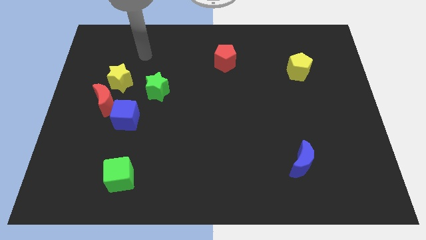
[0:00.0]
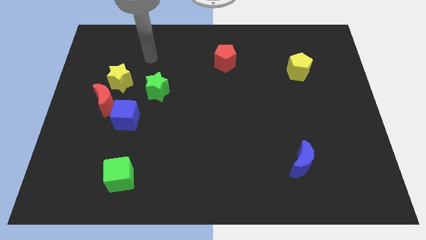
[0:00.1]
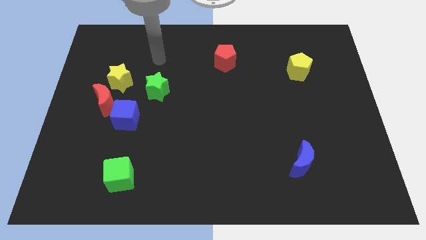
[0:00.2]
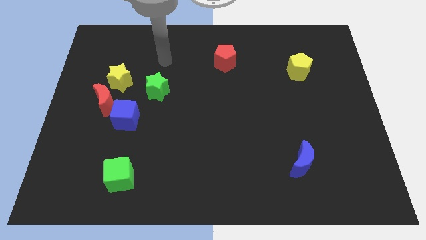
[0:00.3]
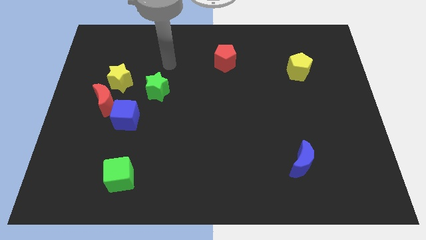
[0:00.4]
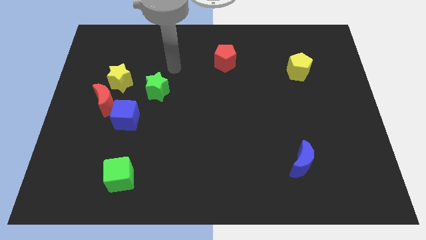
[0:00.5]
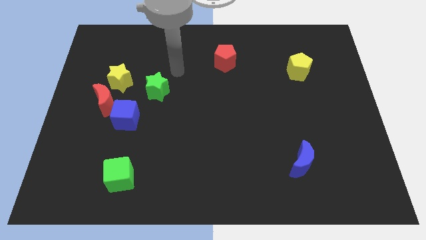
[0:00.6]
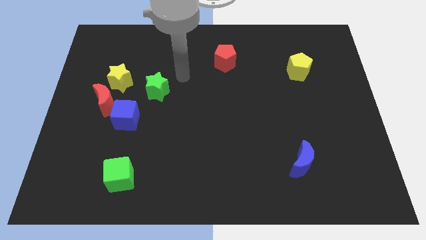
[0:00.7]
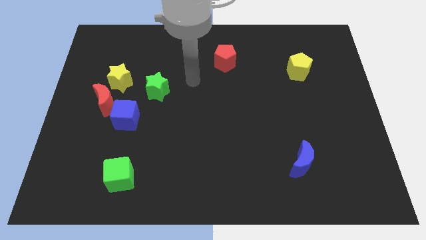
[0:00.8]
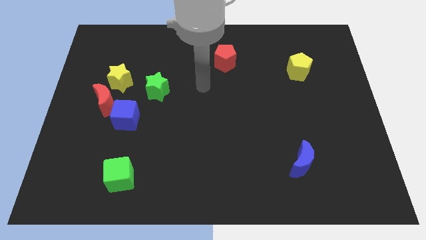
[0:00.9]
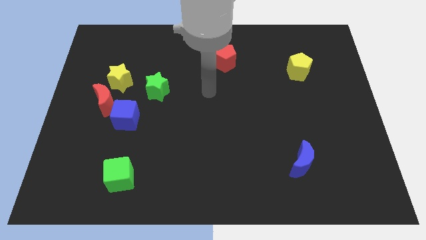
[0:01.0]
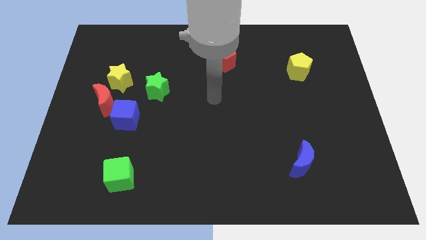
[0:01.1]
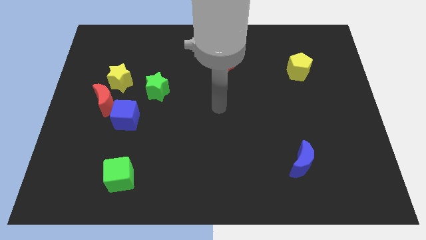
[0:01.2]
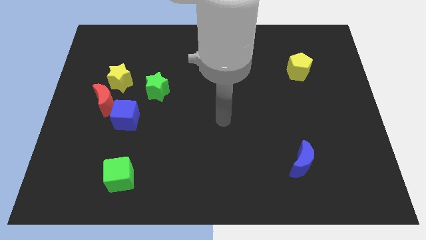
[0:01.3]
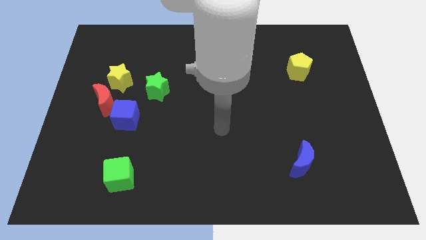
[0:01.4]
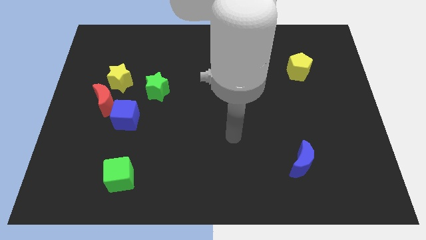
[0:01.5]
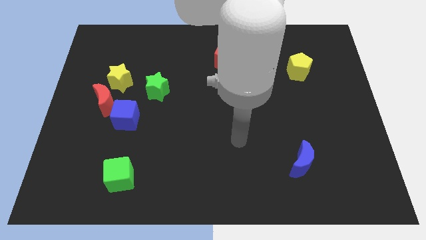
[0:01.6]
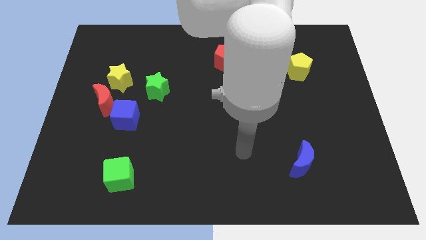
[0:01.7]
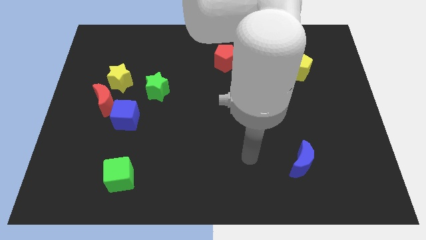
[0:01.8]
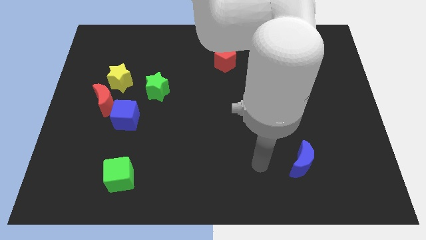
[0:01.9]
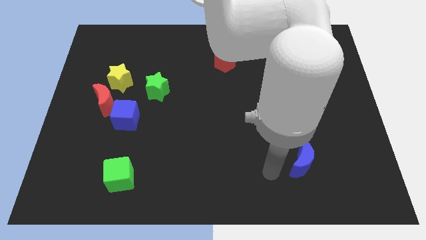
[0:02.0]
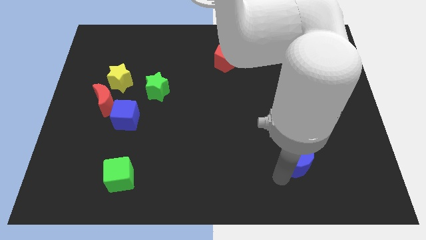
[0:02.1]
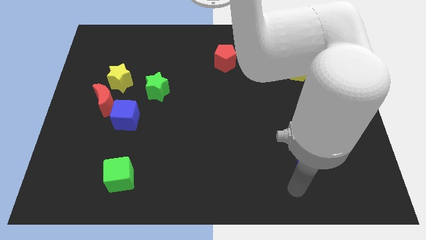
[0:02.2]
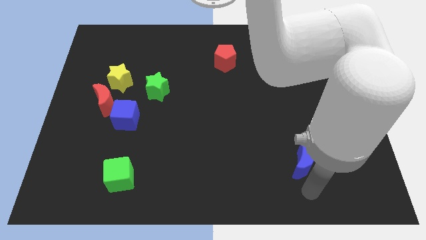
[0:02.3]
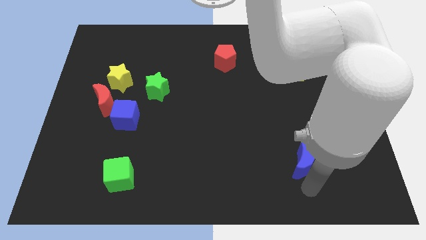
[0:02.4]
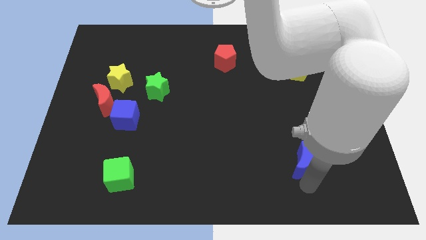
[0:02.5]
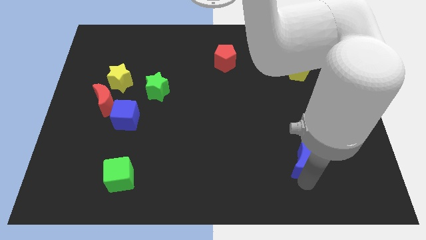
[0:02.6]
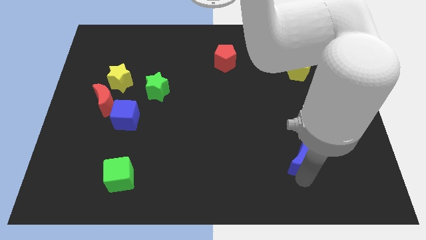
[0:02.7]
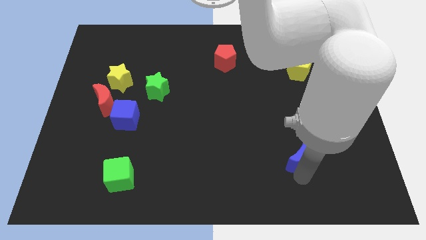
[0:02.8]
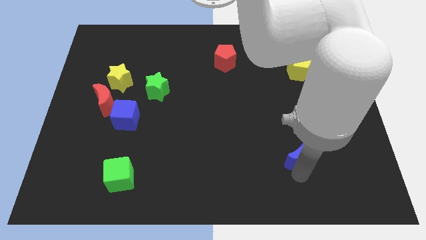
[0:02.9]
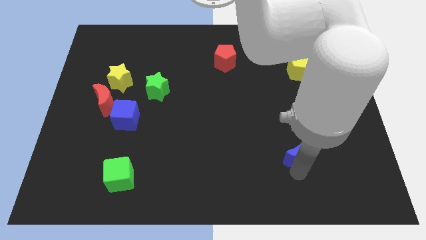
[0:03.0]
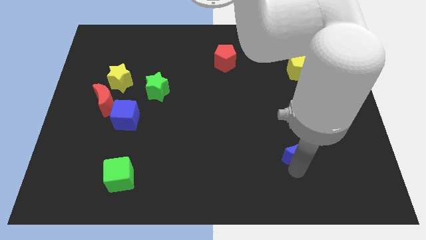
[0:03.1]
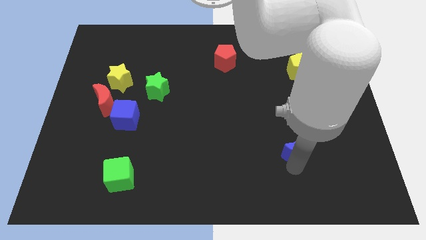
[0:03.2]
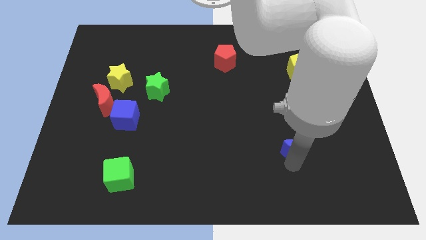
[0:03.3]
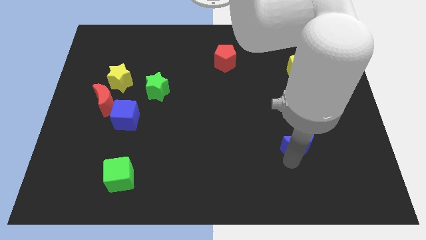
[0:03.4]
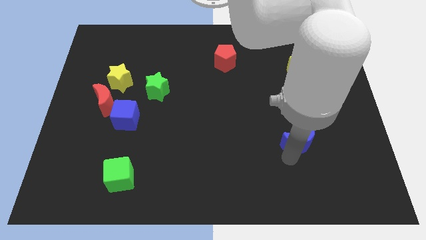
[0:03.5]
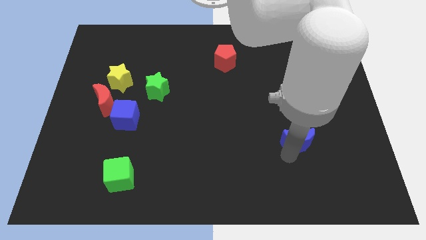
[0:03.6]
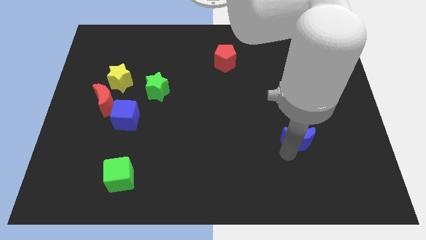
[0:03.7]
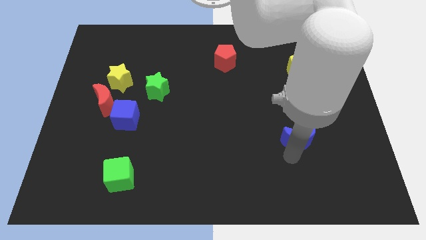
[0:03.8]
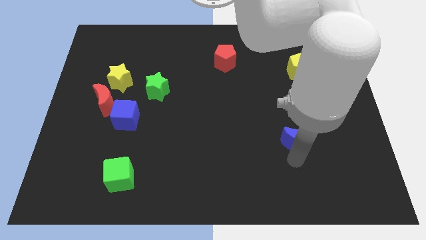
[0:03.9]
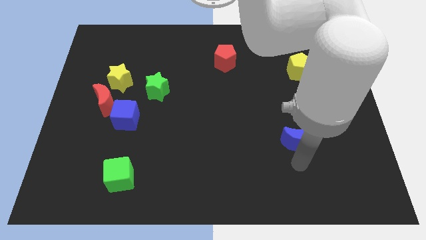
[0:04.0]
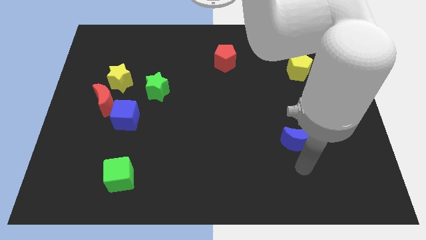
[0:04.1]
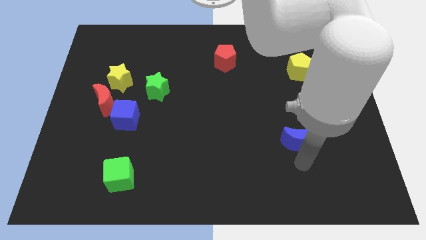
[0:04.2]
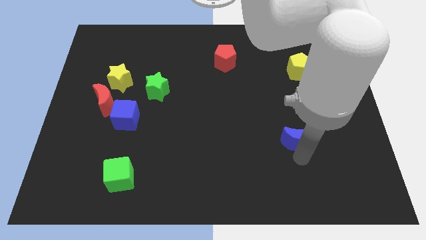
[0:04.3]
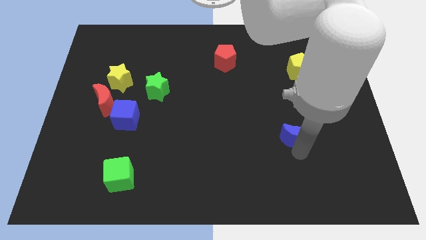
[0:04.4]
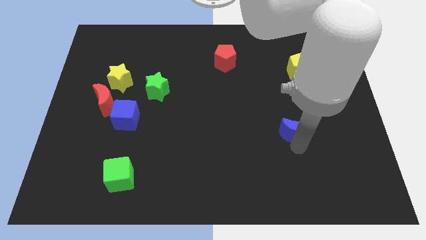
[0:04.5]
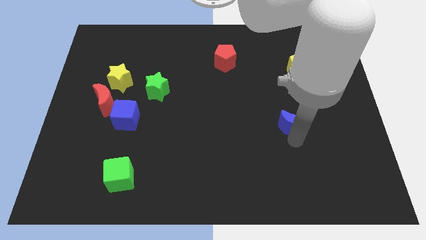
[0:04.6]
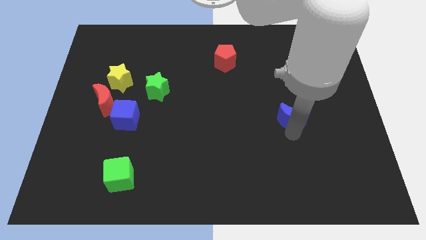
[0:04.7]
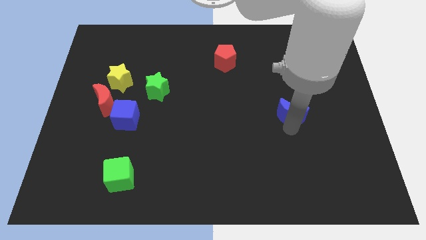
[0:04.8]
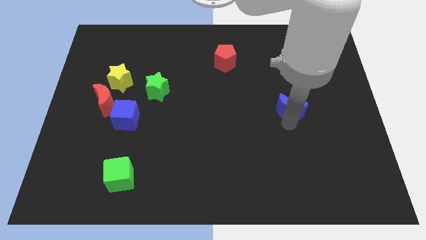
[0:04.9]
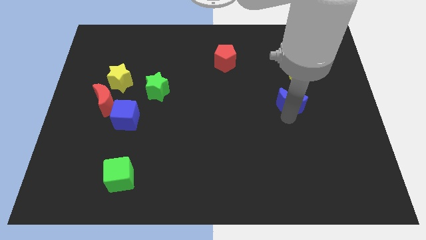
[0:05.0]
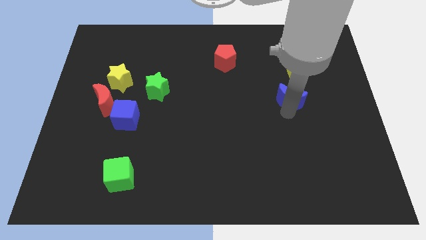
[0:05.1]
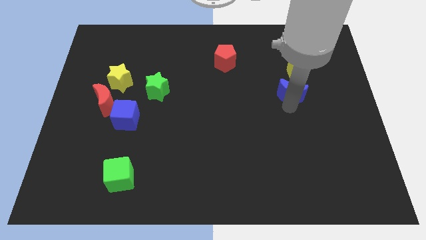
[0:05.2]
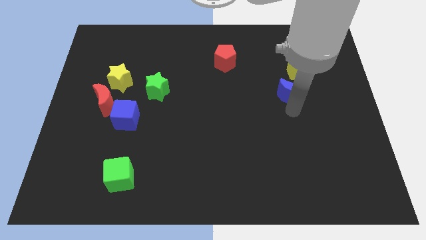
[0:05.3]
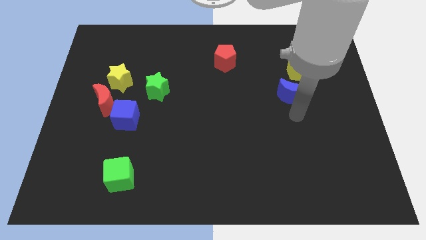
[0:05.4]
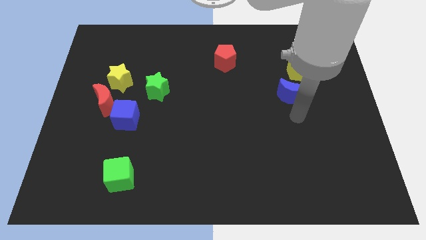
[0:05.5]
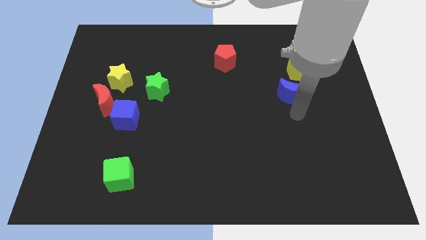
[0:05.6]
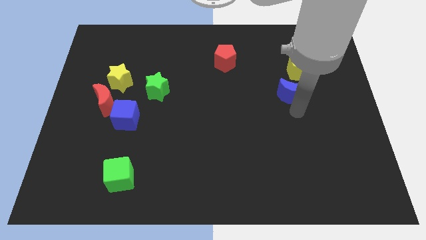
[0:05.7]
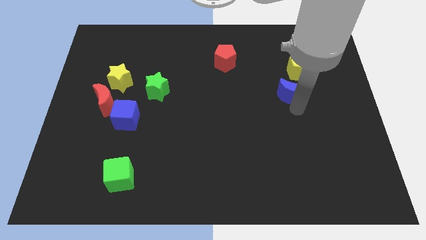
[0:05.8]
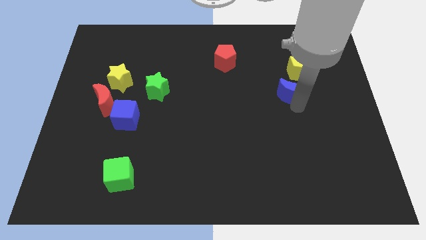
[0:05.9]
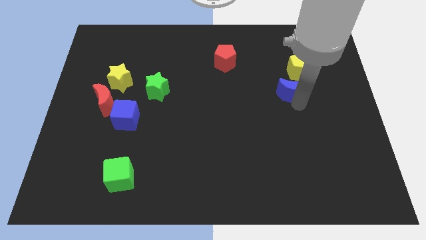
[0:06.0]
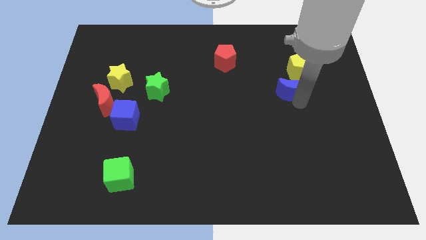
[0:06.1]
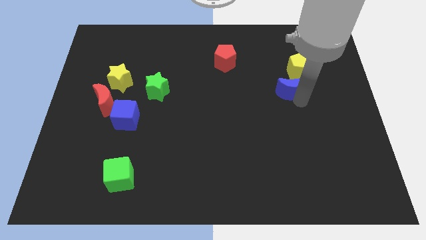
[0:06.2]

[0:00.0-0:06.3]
move the blue moon upwards

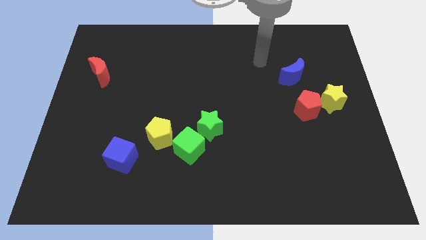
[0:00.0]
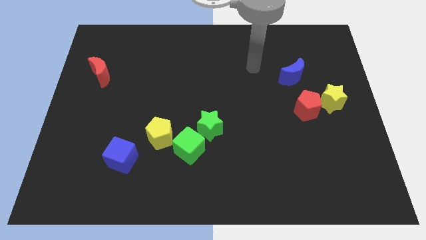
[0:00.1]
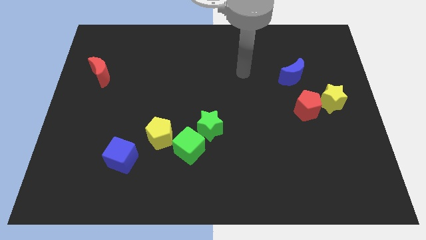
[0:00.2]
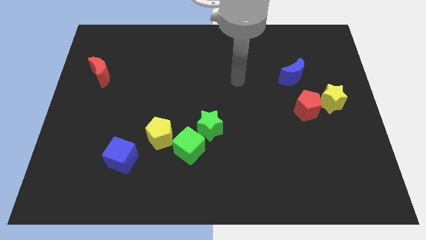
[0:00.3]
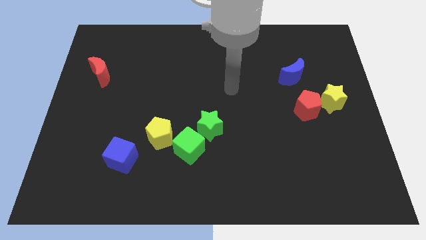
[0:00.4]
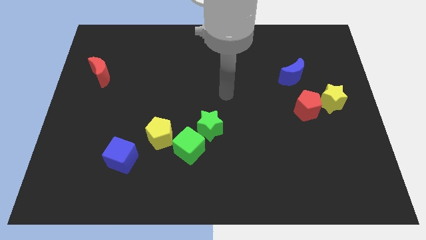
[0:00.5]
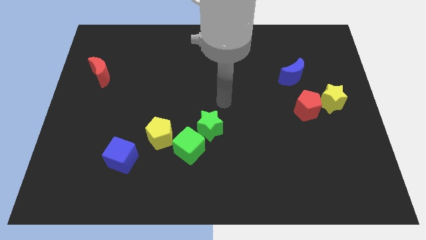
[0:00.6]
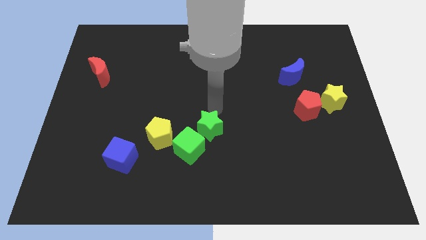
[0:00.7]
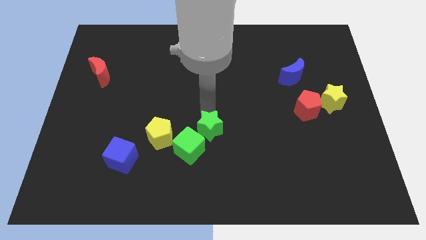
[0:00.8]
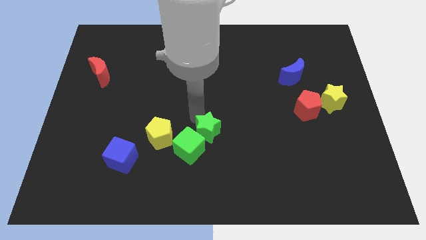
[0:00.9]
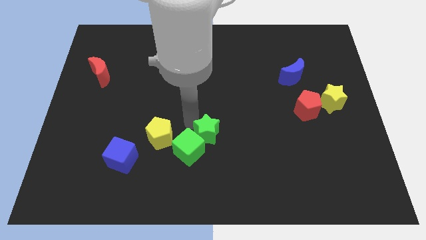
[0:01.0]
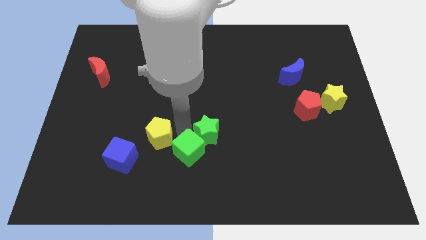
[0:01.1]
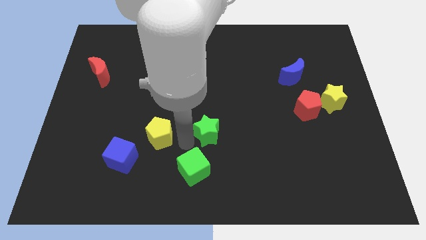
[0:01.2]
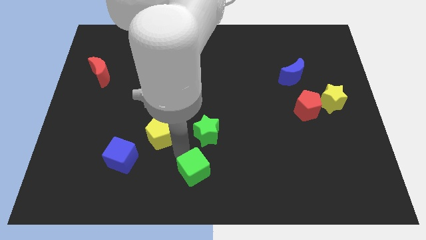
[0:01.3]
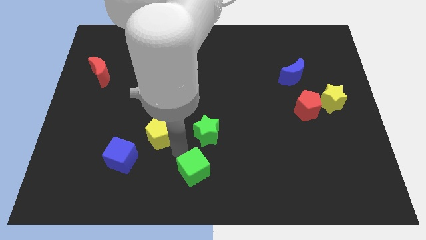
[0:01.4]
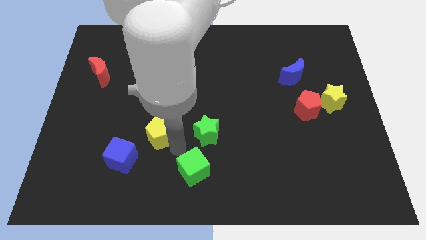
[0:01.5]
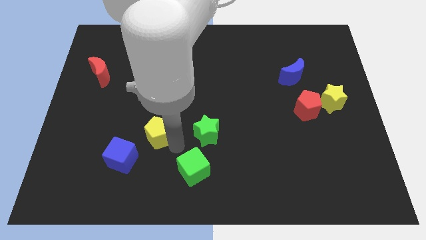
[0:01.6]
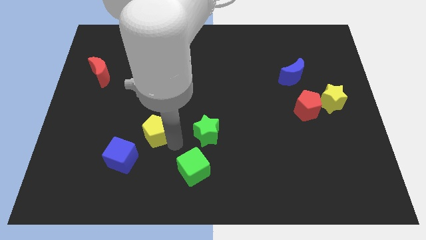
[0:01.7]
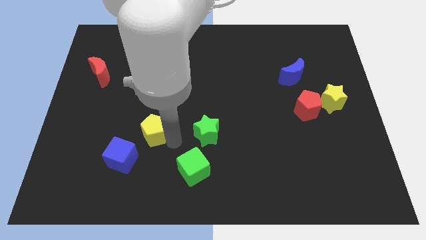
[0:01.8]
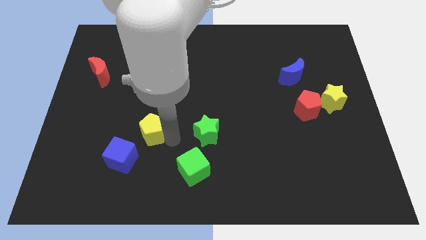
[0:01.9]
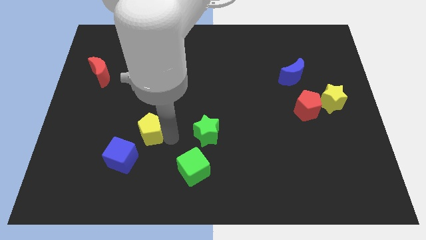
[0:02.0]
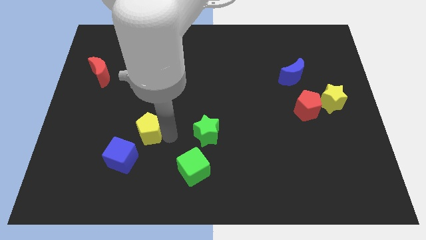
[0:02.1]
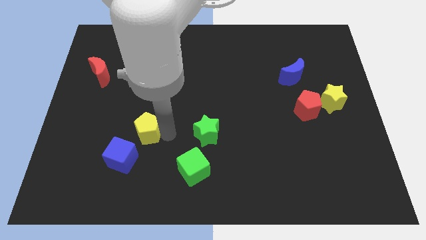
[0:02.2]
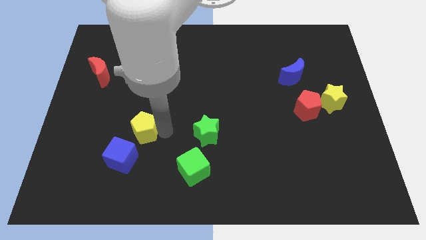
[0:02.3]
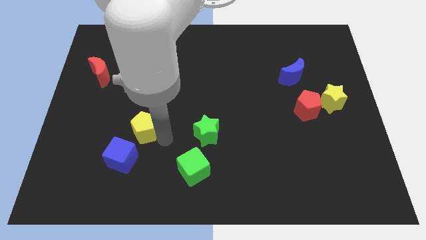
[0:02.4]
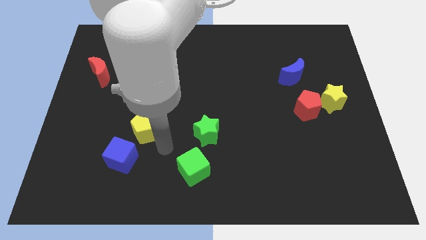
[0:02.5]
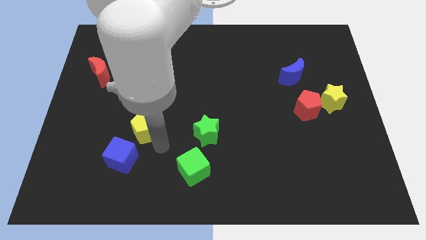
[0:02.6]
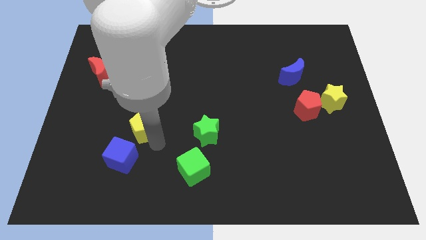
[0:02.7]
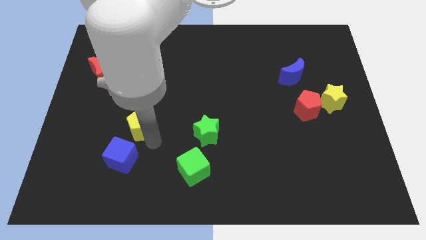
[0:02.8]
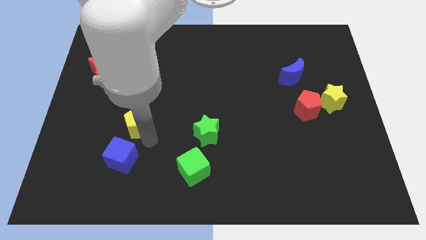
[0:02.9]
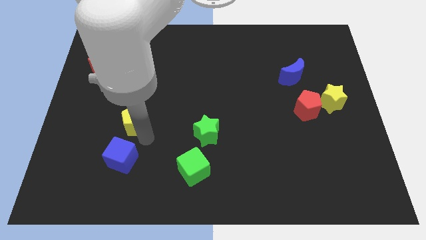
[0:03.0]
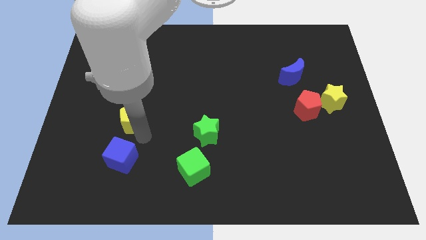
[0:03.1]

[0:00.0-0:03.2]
slide the yellow pentagon upwards and then to the left slightly
